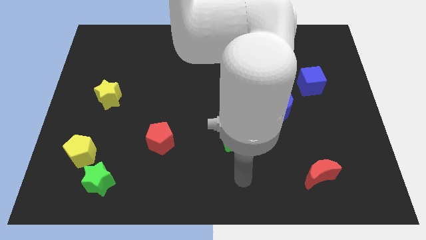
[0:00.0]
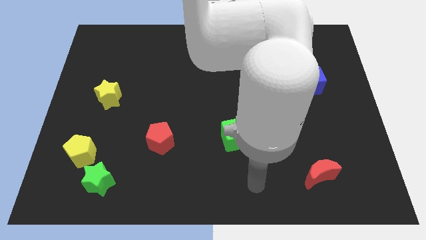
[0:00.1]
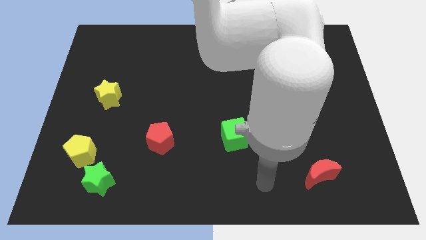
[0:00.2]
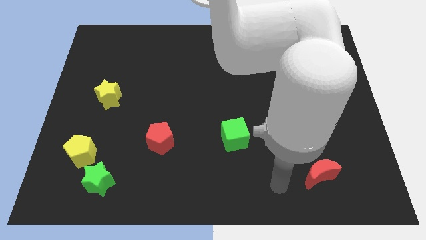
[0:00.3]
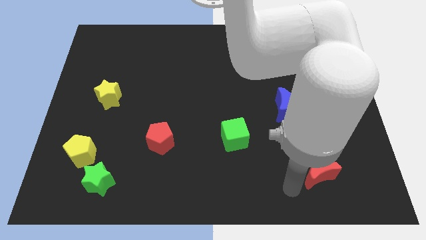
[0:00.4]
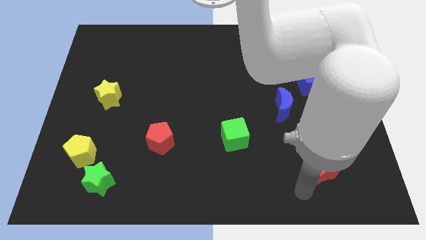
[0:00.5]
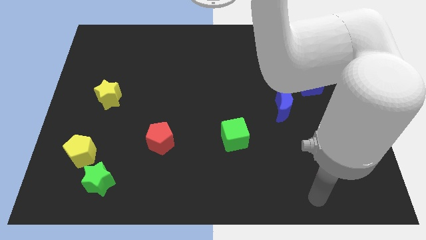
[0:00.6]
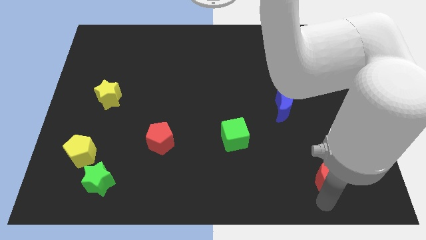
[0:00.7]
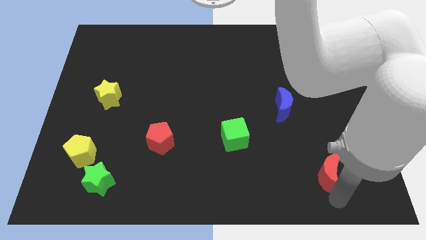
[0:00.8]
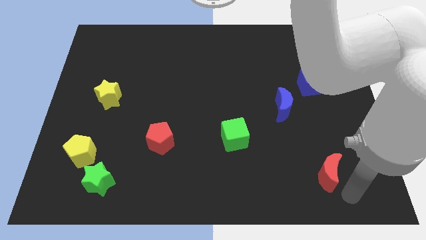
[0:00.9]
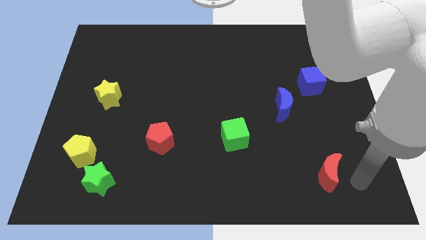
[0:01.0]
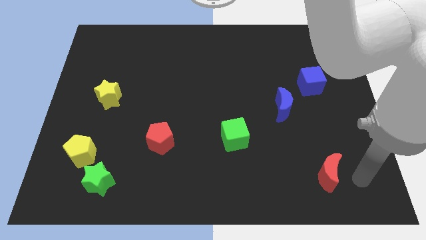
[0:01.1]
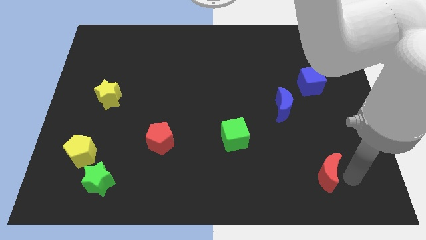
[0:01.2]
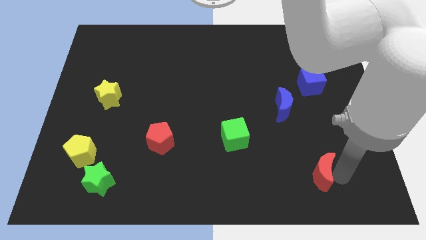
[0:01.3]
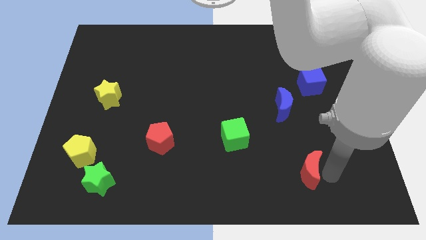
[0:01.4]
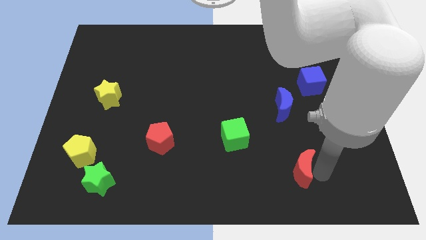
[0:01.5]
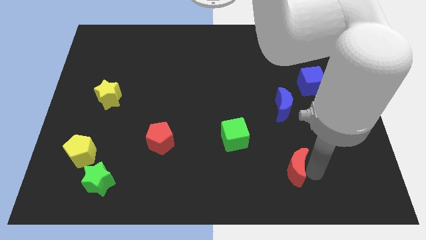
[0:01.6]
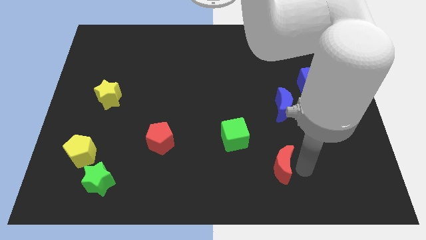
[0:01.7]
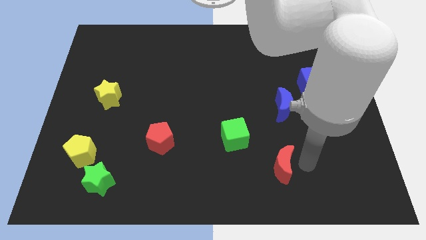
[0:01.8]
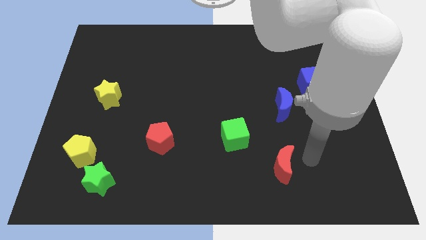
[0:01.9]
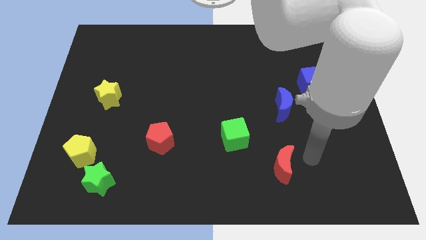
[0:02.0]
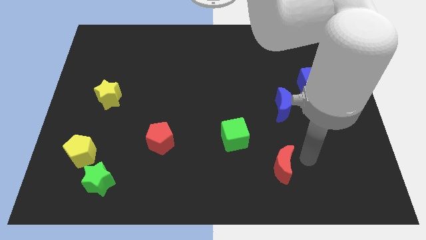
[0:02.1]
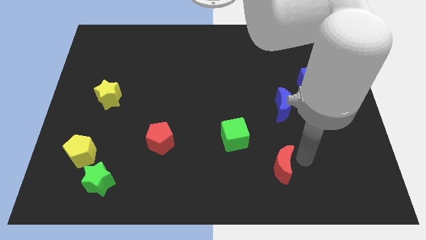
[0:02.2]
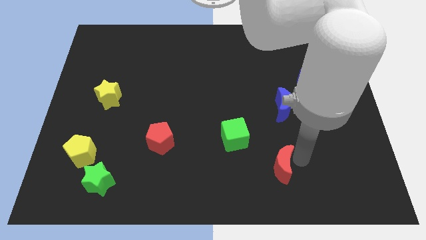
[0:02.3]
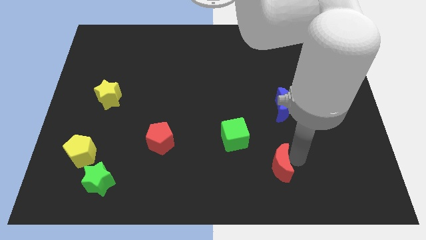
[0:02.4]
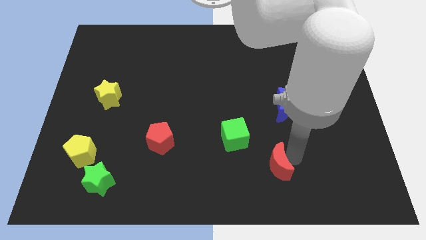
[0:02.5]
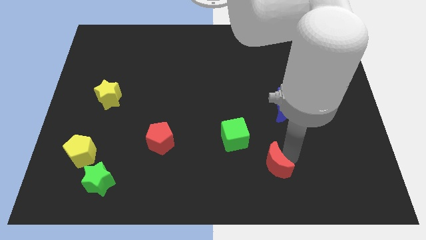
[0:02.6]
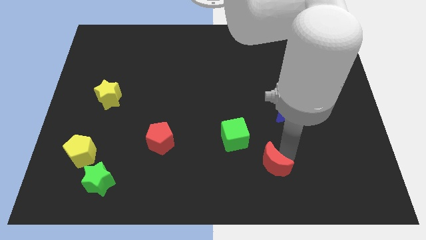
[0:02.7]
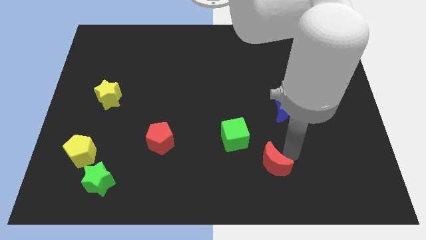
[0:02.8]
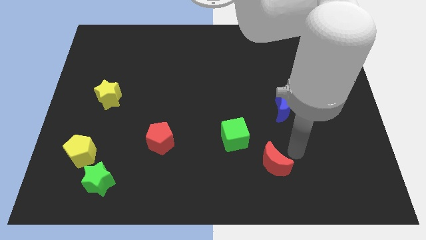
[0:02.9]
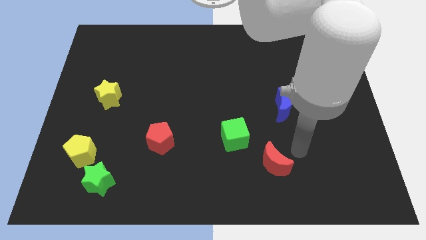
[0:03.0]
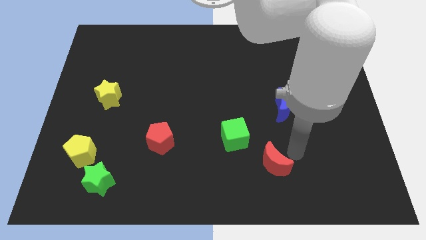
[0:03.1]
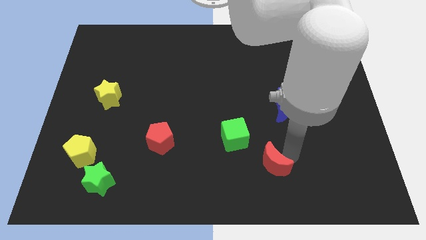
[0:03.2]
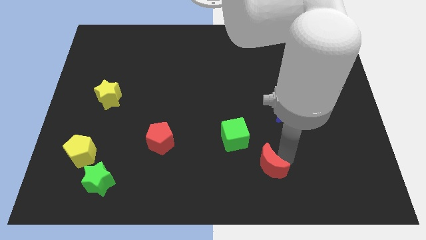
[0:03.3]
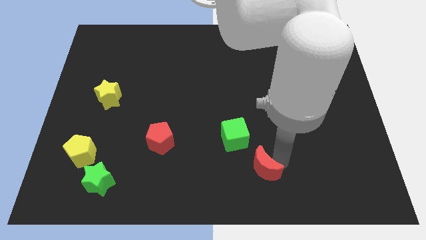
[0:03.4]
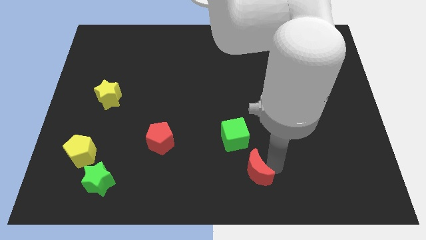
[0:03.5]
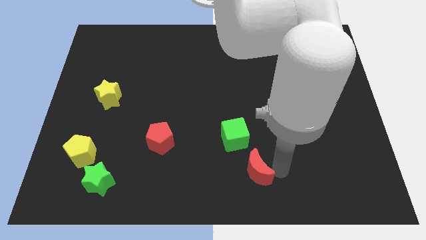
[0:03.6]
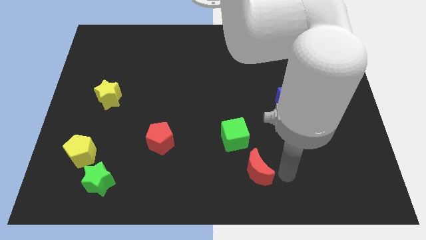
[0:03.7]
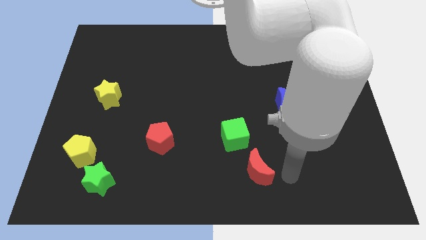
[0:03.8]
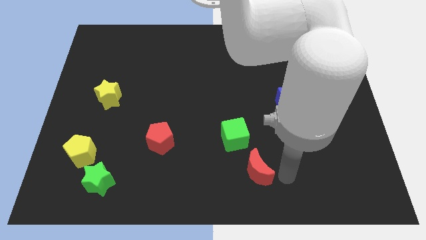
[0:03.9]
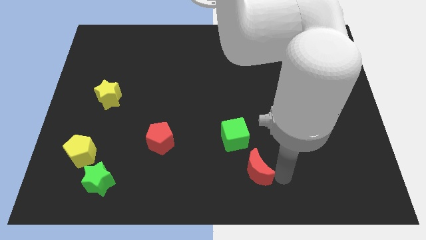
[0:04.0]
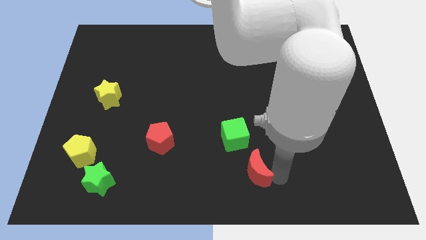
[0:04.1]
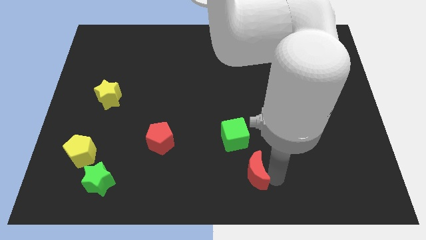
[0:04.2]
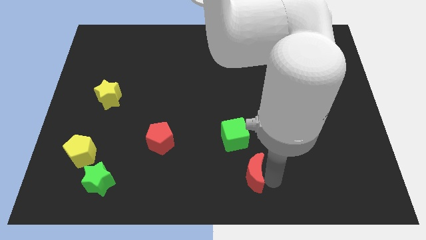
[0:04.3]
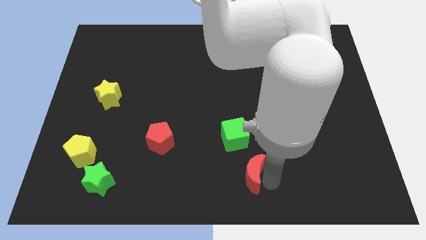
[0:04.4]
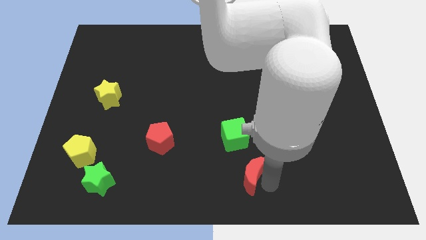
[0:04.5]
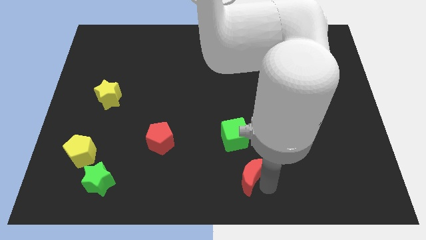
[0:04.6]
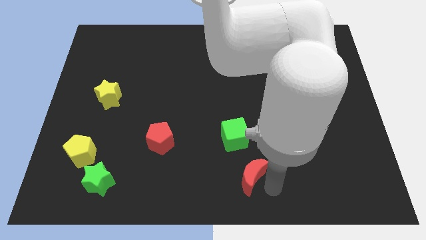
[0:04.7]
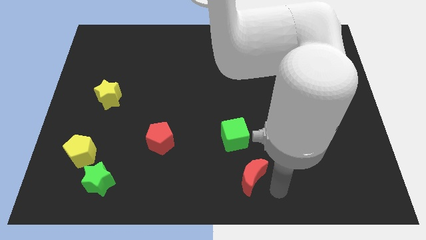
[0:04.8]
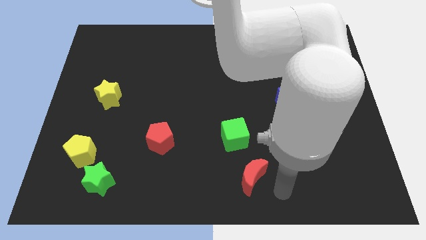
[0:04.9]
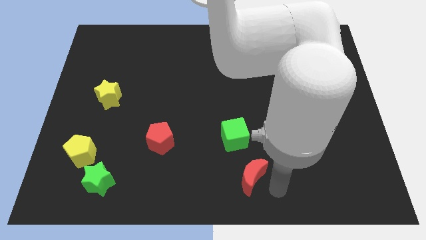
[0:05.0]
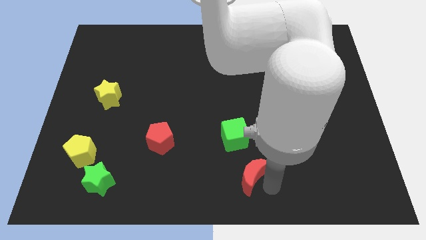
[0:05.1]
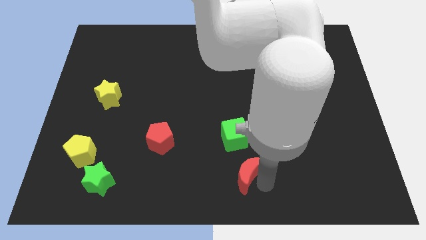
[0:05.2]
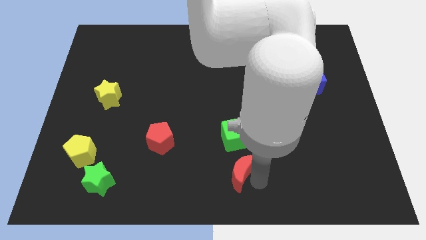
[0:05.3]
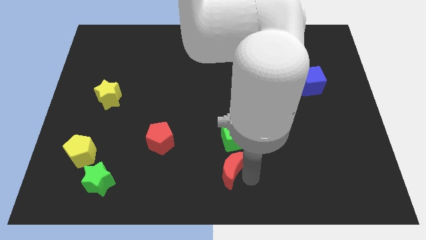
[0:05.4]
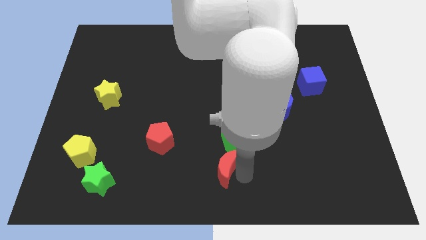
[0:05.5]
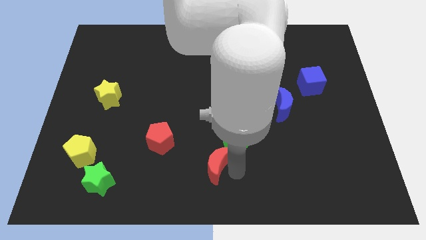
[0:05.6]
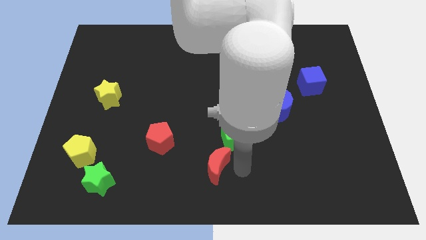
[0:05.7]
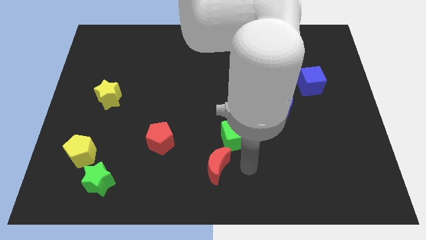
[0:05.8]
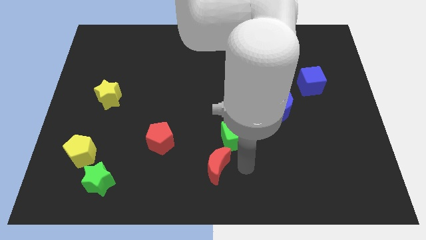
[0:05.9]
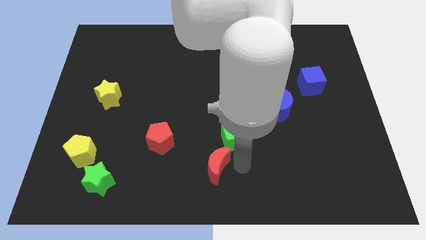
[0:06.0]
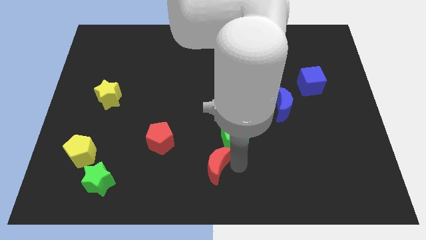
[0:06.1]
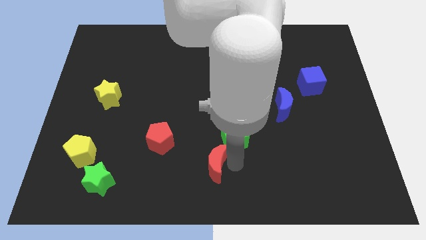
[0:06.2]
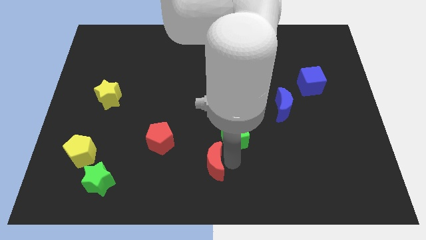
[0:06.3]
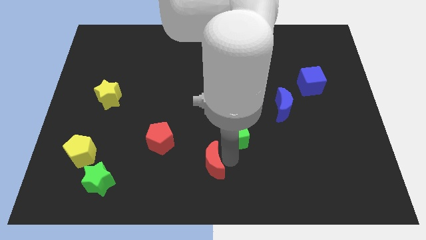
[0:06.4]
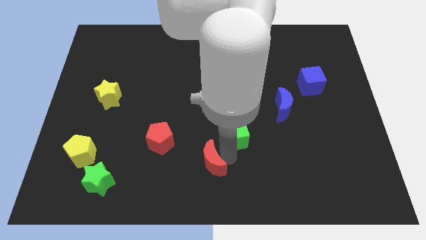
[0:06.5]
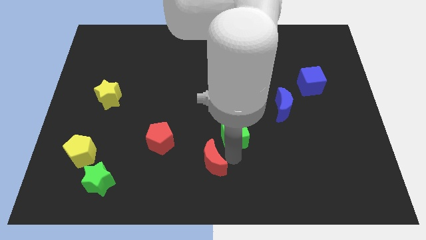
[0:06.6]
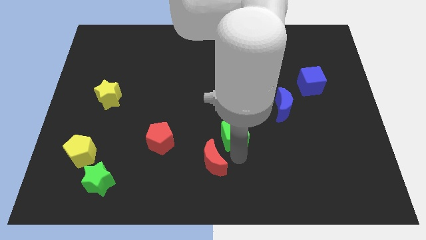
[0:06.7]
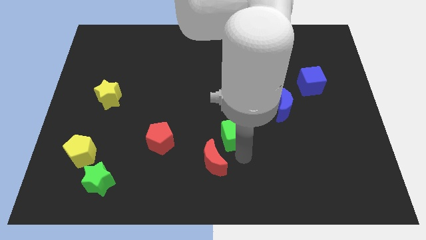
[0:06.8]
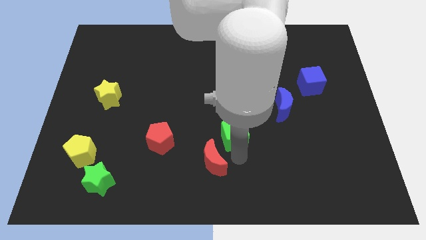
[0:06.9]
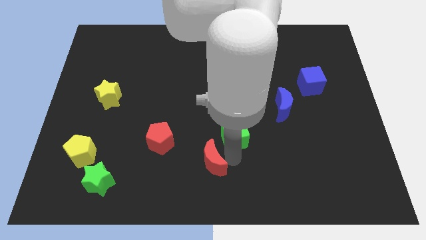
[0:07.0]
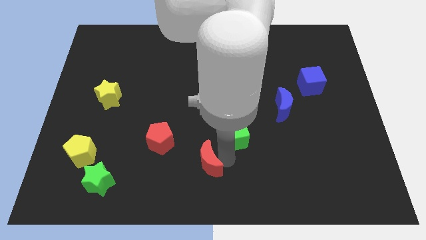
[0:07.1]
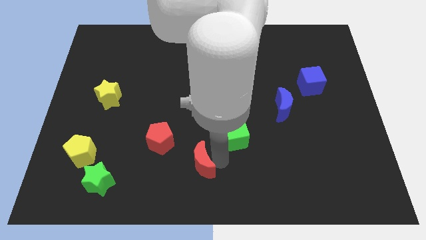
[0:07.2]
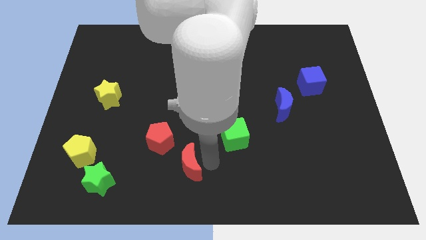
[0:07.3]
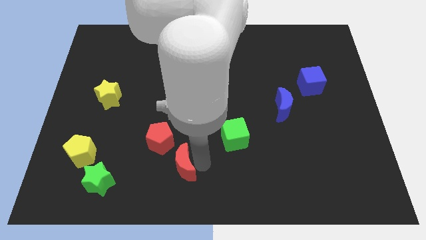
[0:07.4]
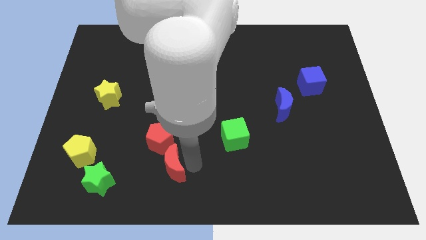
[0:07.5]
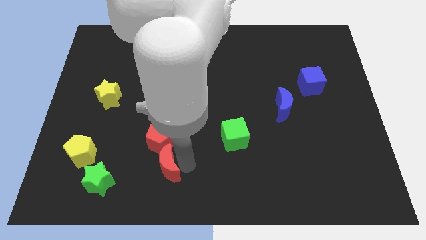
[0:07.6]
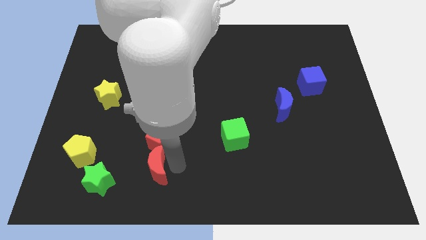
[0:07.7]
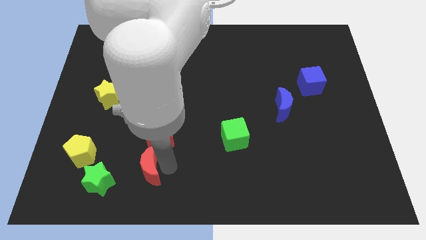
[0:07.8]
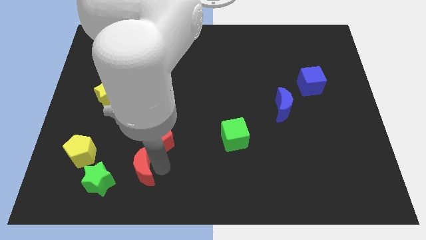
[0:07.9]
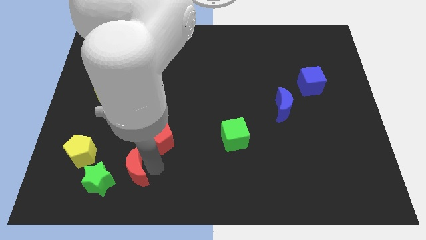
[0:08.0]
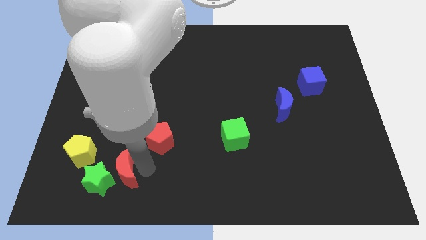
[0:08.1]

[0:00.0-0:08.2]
slide the red moon next to the green star
